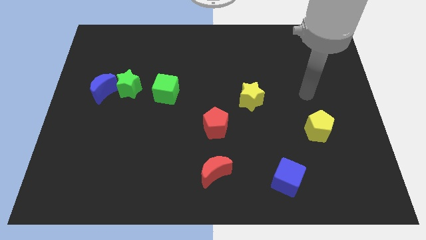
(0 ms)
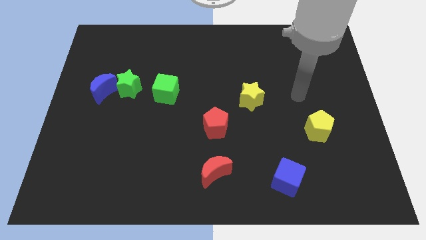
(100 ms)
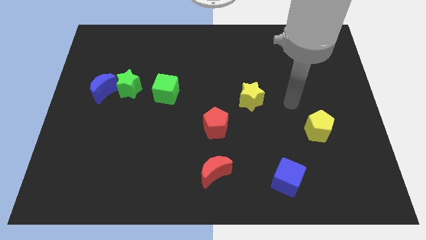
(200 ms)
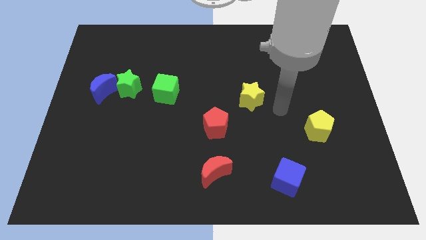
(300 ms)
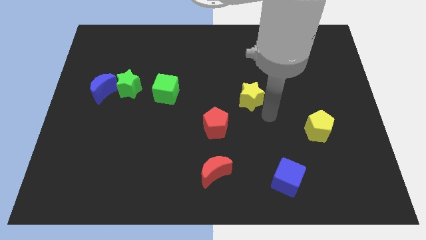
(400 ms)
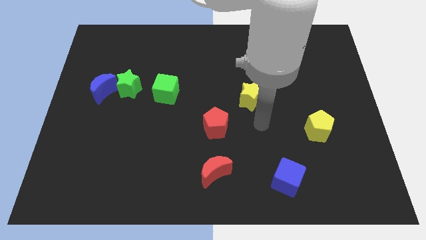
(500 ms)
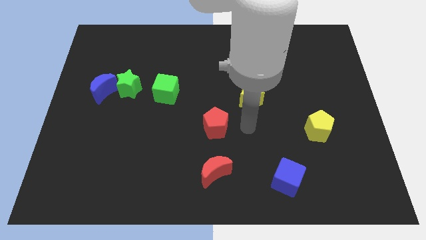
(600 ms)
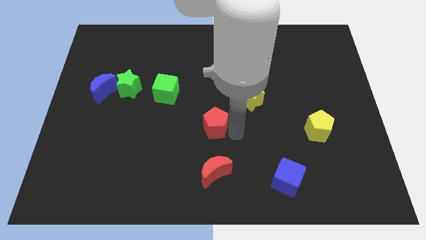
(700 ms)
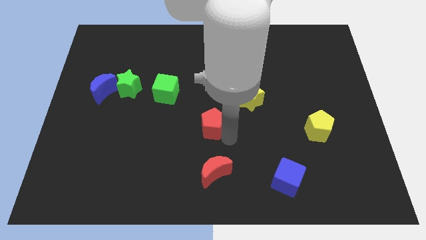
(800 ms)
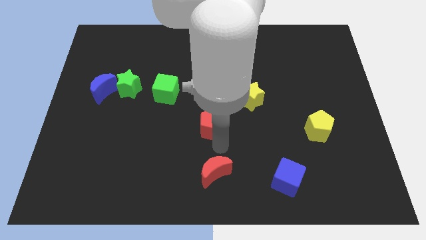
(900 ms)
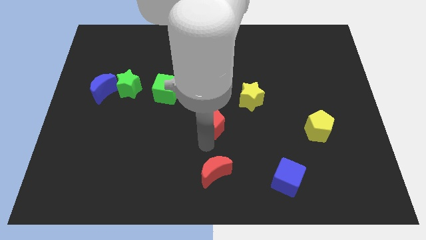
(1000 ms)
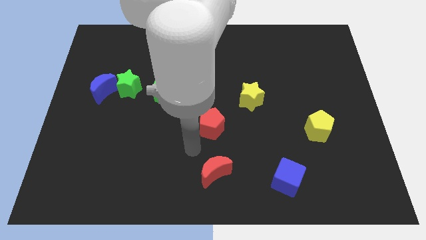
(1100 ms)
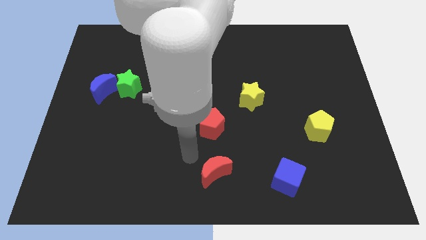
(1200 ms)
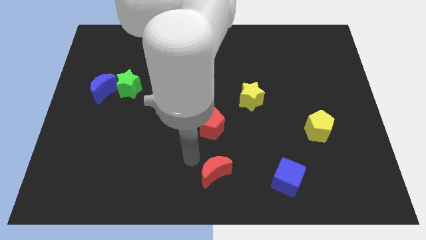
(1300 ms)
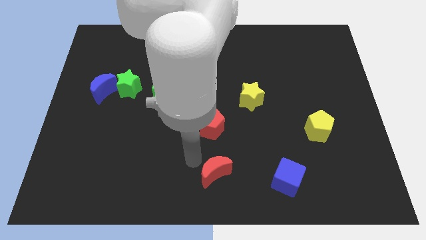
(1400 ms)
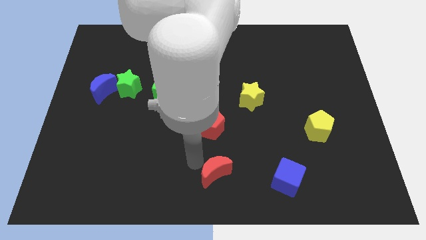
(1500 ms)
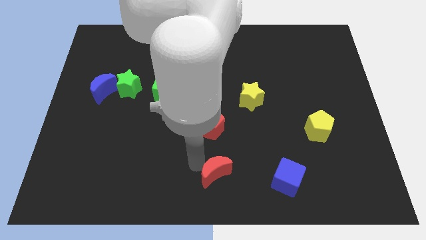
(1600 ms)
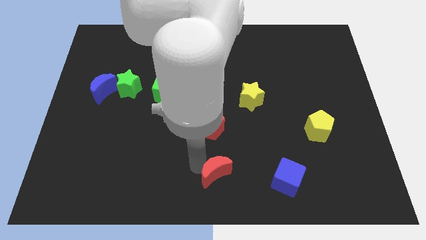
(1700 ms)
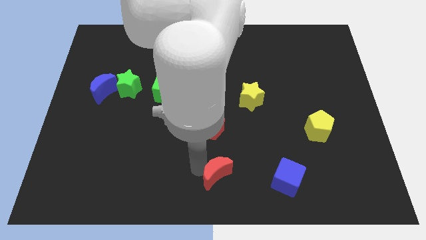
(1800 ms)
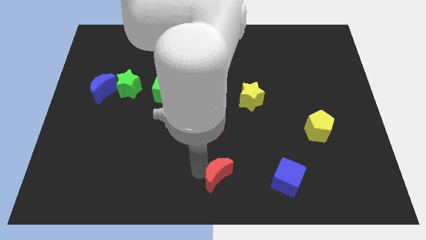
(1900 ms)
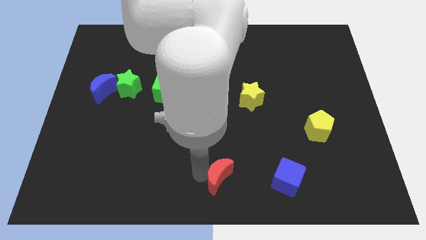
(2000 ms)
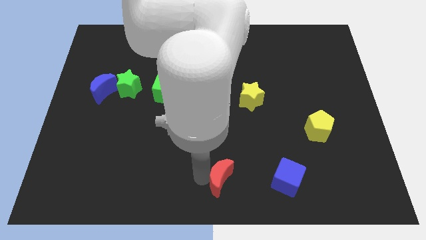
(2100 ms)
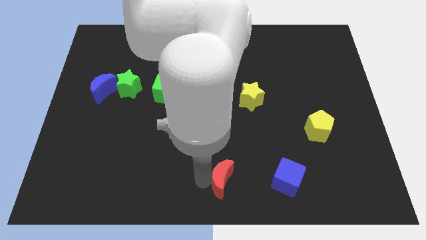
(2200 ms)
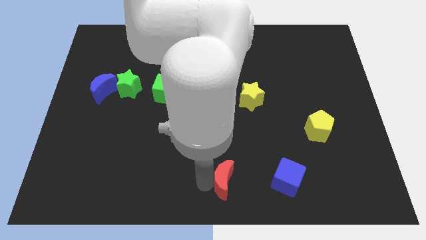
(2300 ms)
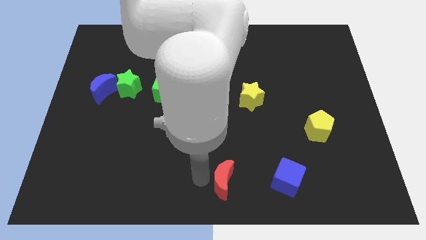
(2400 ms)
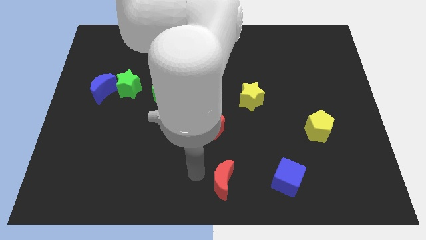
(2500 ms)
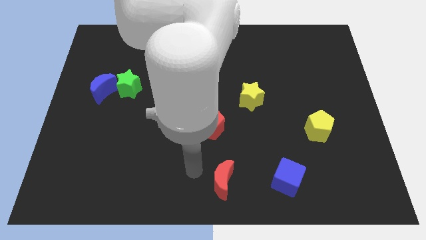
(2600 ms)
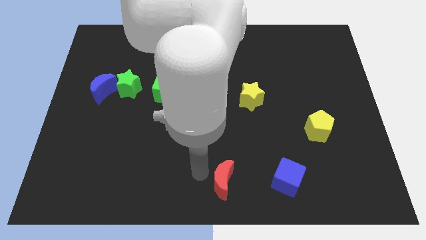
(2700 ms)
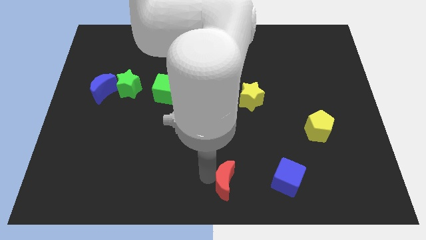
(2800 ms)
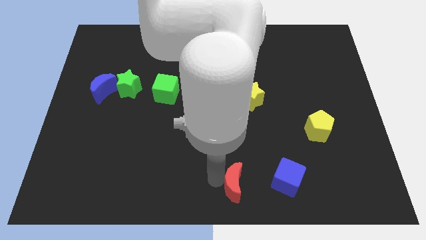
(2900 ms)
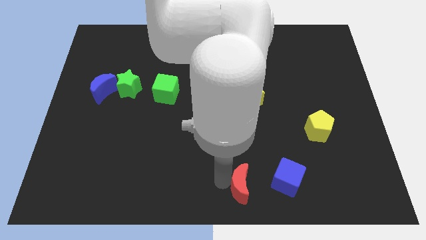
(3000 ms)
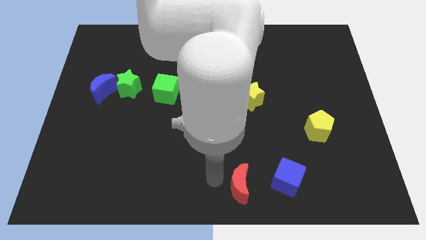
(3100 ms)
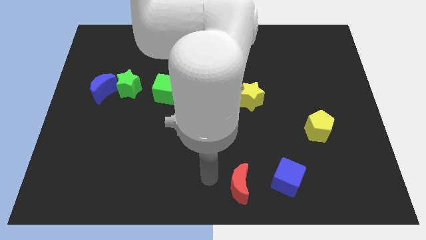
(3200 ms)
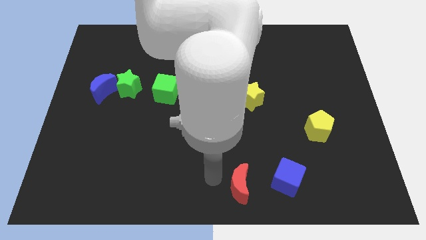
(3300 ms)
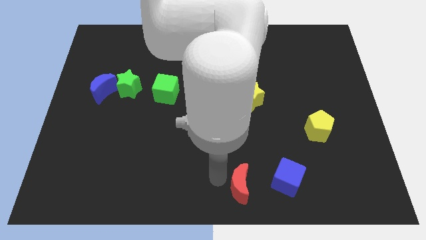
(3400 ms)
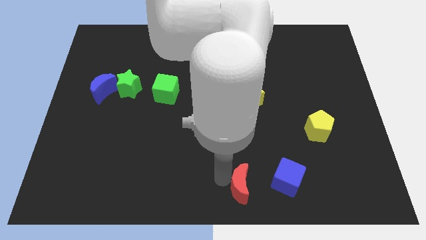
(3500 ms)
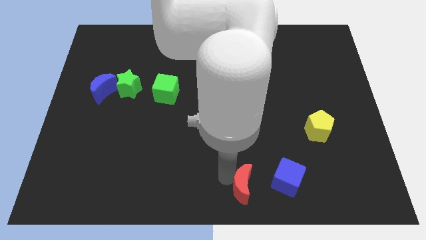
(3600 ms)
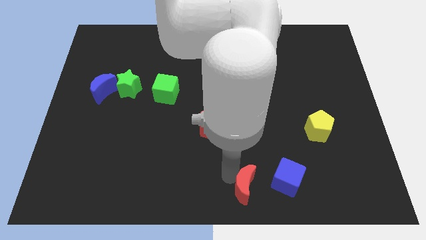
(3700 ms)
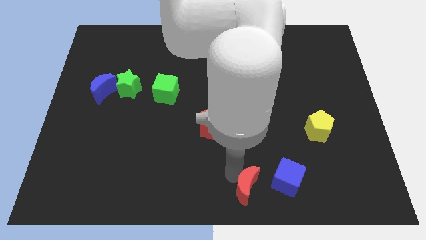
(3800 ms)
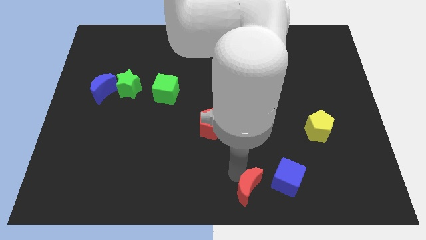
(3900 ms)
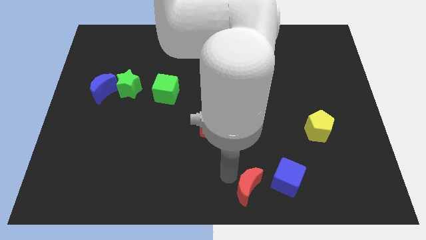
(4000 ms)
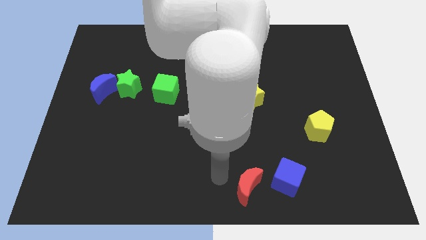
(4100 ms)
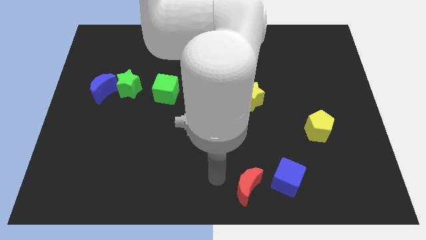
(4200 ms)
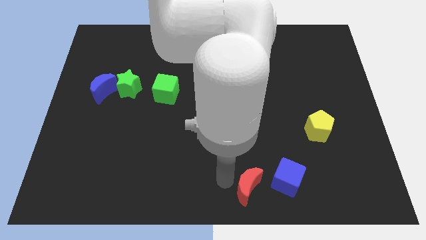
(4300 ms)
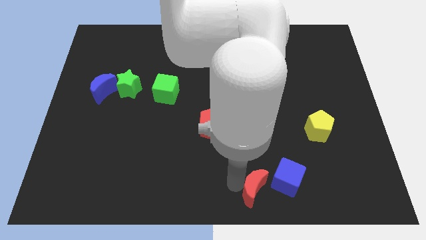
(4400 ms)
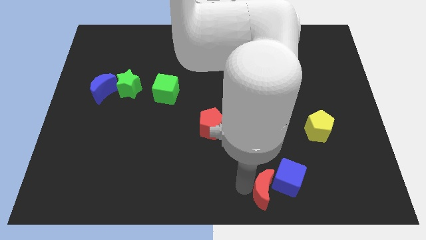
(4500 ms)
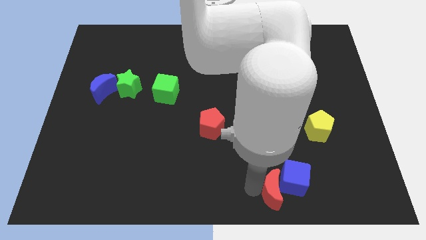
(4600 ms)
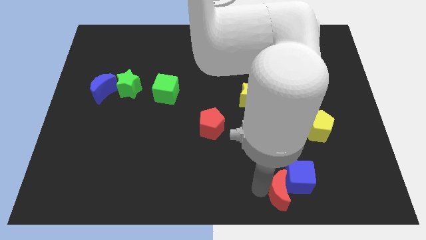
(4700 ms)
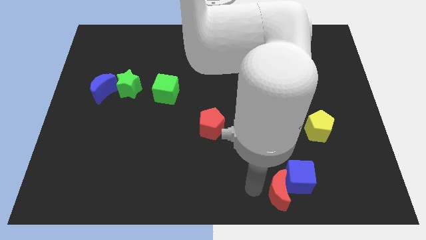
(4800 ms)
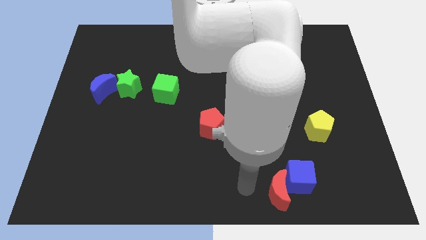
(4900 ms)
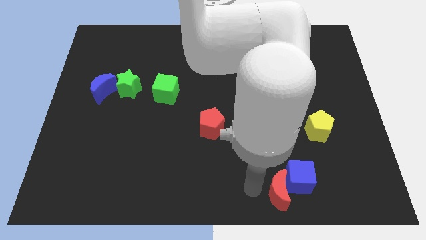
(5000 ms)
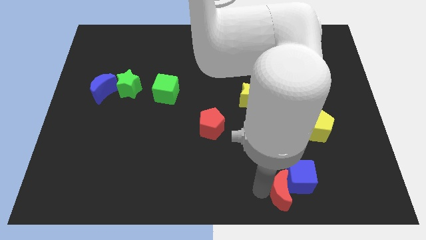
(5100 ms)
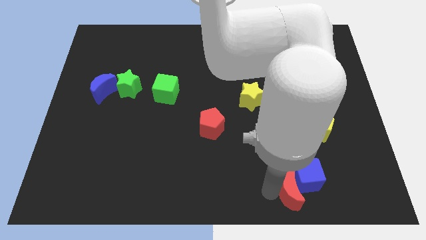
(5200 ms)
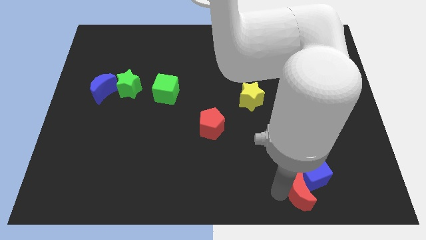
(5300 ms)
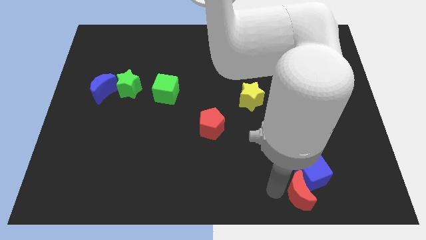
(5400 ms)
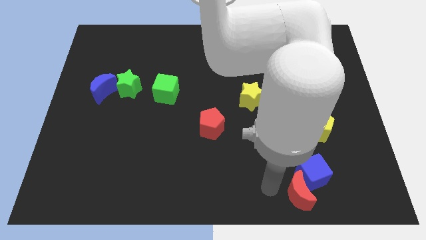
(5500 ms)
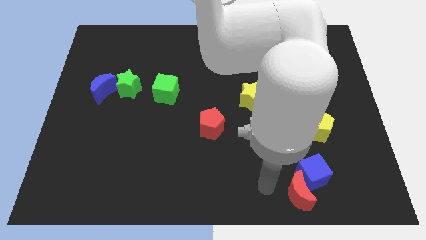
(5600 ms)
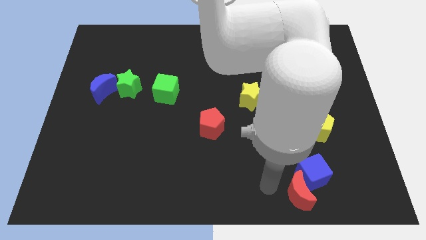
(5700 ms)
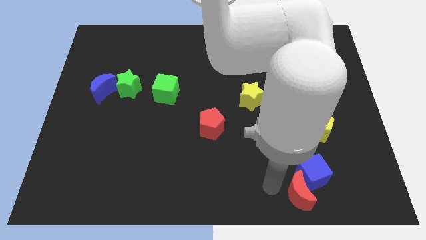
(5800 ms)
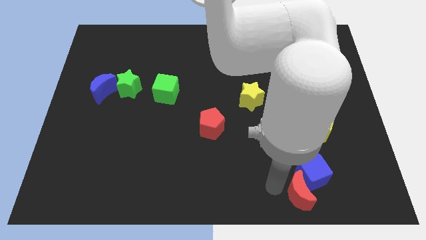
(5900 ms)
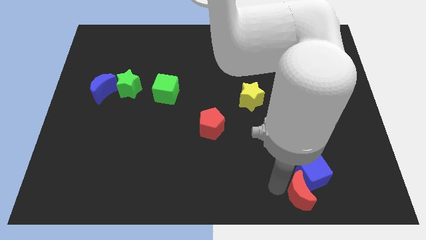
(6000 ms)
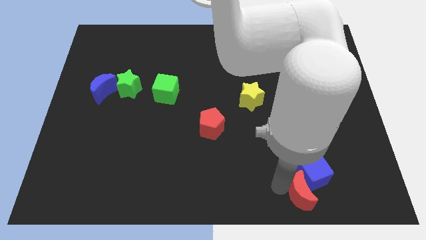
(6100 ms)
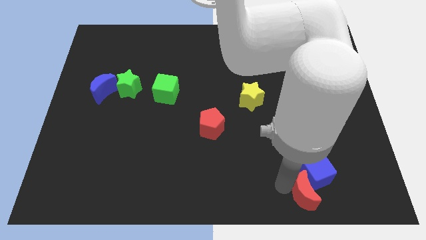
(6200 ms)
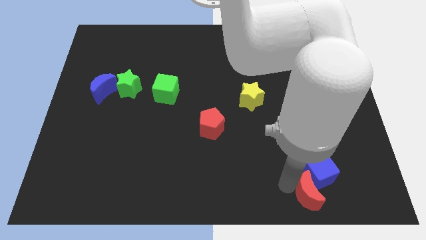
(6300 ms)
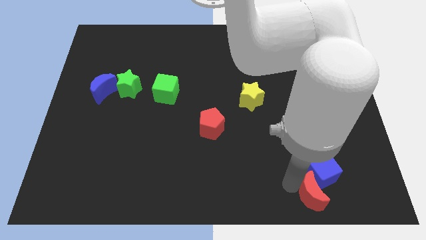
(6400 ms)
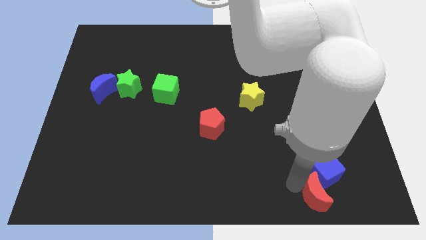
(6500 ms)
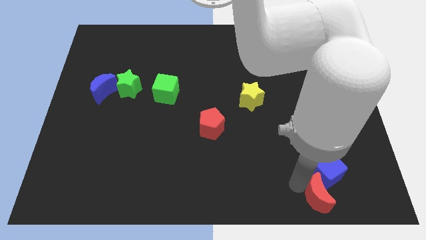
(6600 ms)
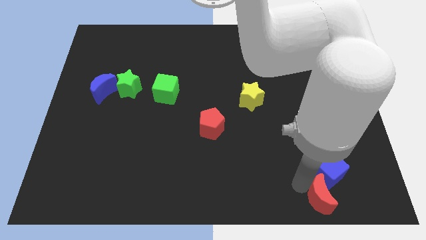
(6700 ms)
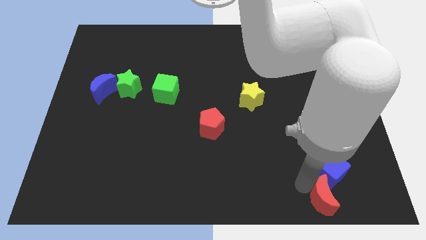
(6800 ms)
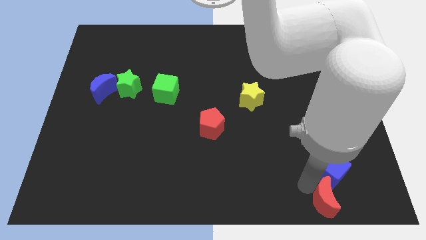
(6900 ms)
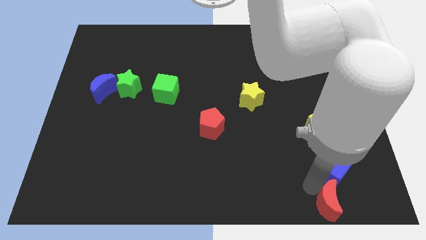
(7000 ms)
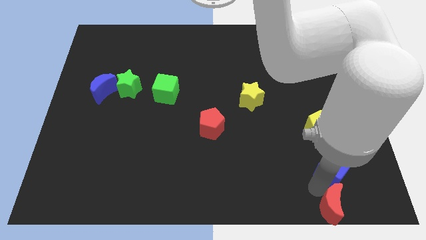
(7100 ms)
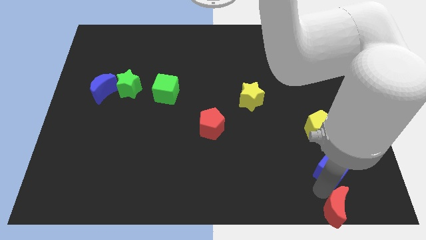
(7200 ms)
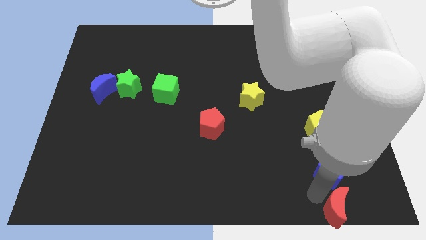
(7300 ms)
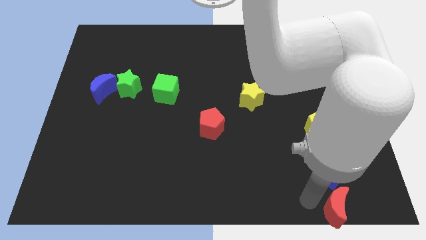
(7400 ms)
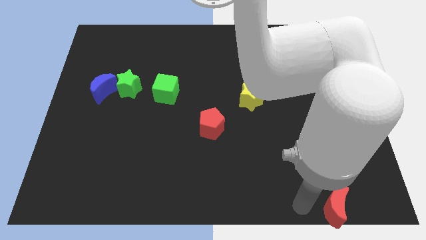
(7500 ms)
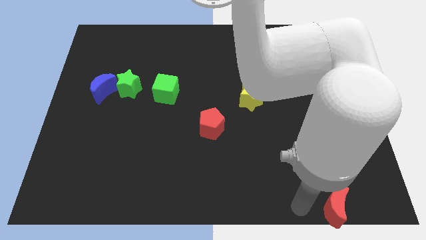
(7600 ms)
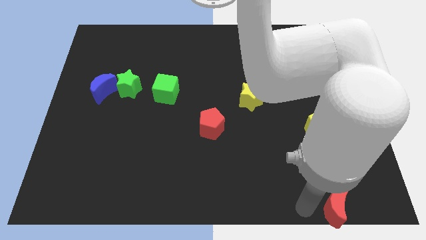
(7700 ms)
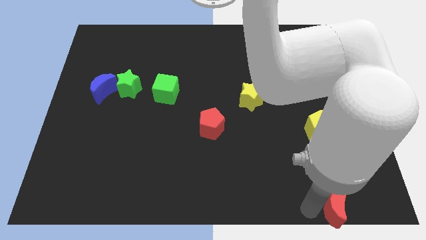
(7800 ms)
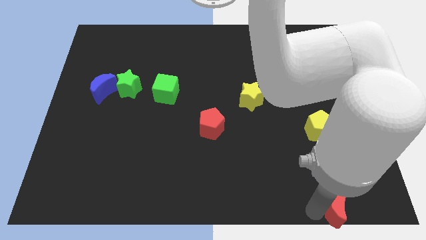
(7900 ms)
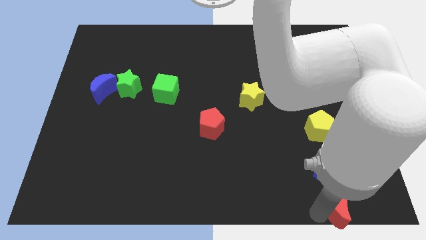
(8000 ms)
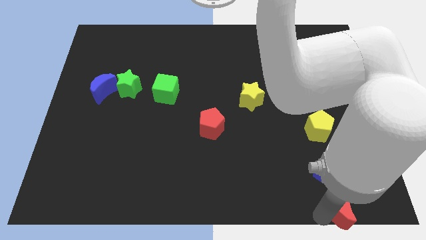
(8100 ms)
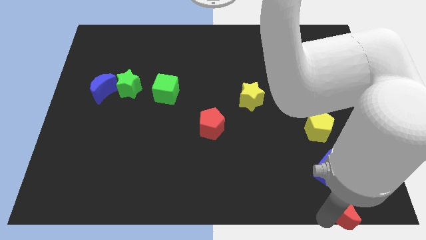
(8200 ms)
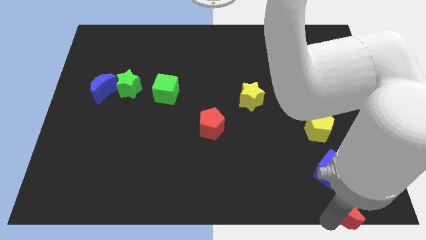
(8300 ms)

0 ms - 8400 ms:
slide the red moon to the bottom right of the board
